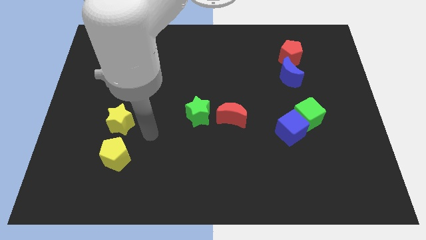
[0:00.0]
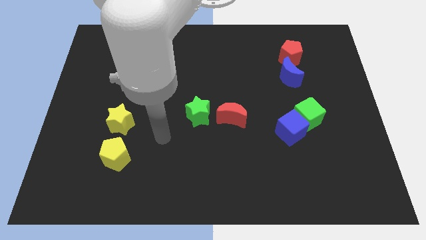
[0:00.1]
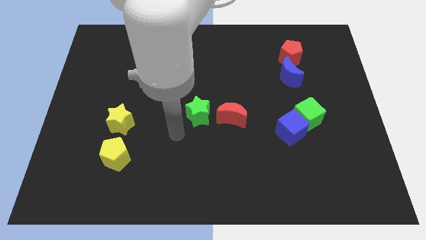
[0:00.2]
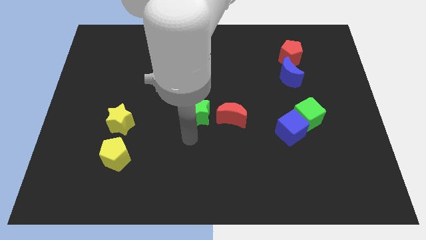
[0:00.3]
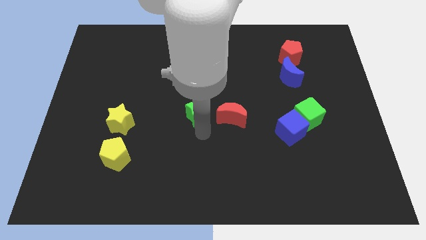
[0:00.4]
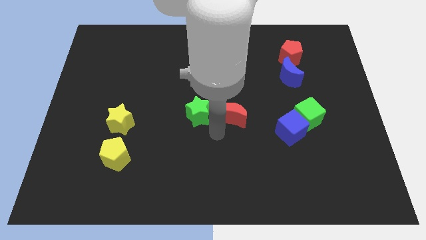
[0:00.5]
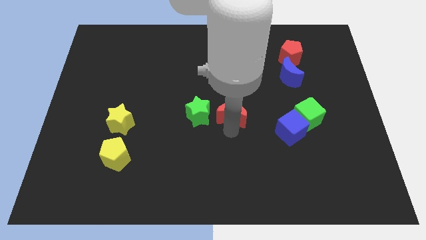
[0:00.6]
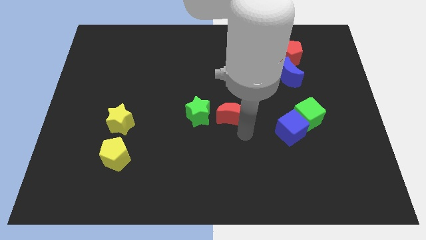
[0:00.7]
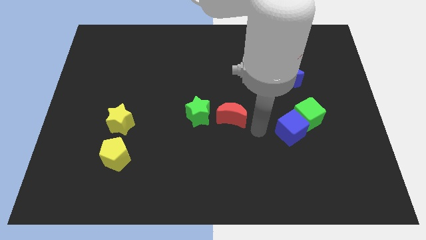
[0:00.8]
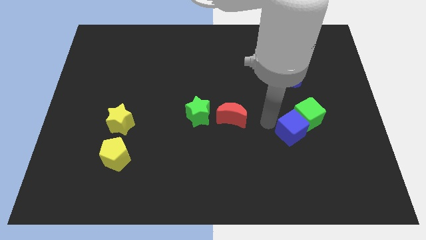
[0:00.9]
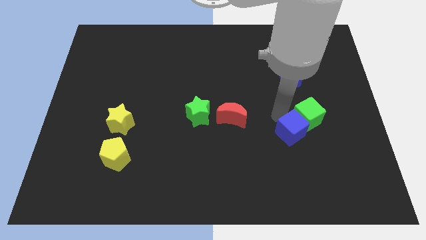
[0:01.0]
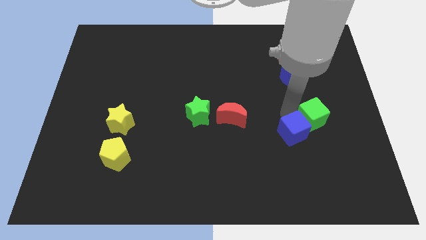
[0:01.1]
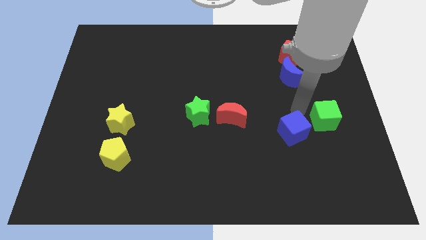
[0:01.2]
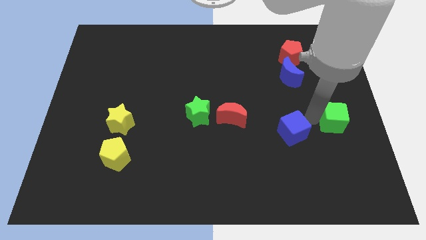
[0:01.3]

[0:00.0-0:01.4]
pull the blue cube apart from the green cube

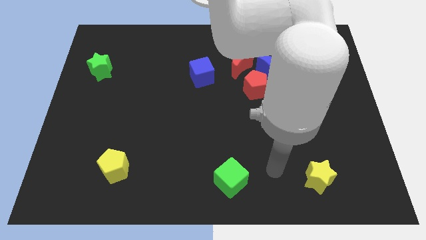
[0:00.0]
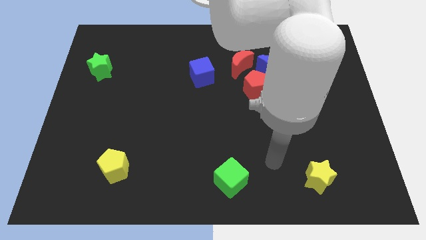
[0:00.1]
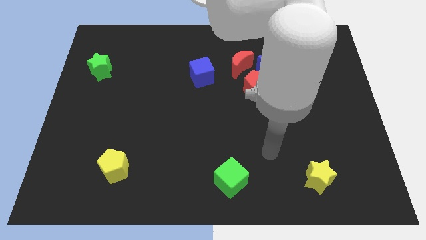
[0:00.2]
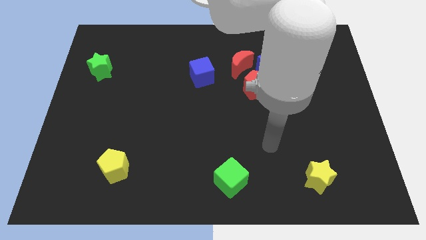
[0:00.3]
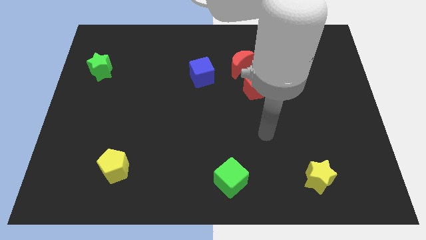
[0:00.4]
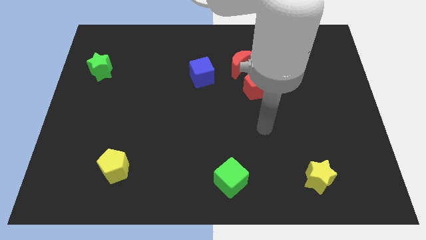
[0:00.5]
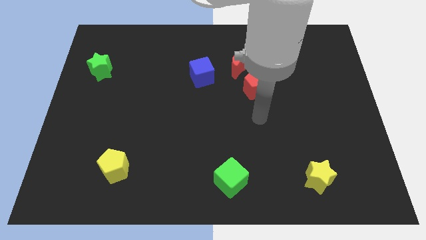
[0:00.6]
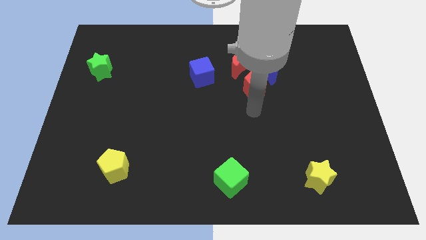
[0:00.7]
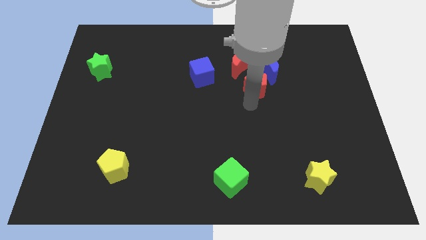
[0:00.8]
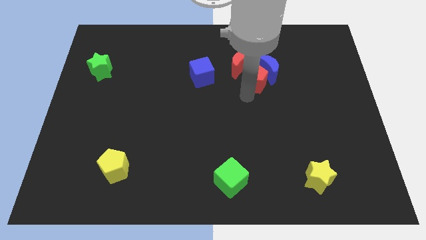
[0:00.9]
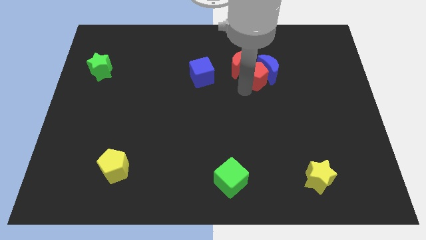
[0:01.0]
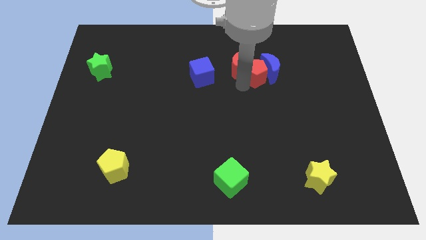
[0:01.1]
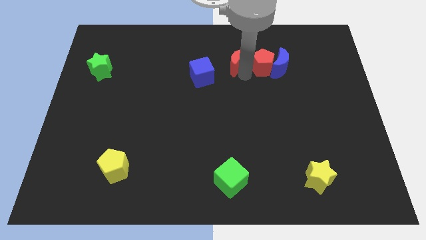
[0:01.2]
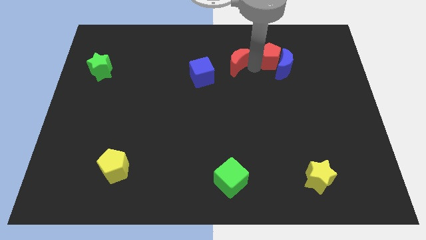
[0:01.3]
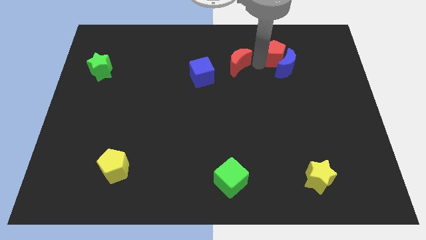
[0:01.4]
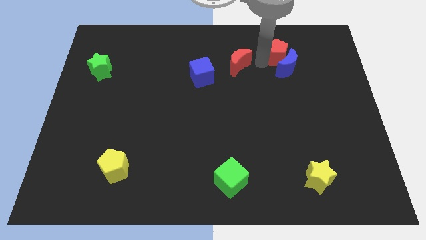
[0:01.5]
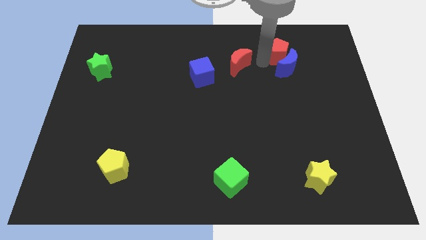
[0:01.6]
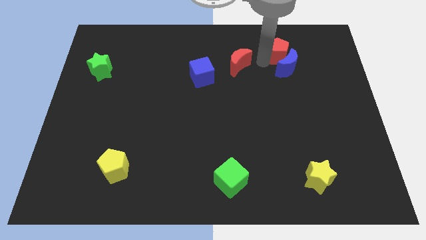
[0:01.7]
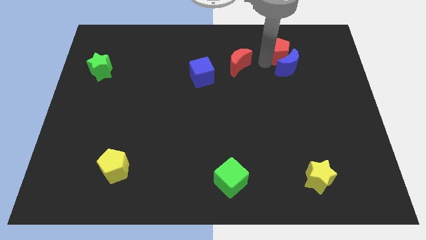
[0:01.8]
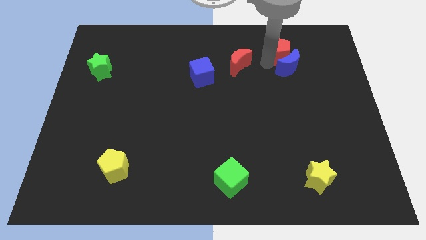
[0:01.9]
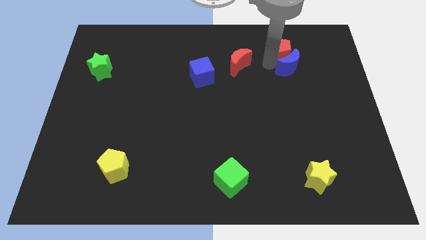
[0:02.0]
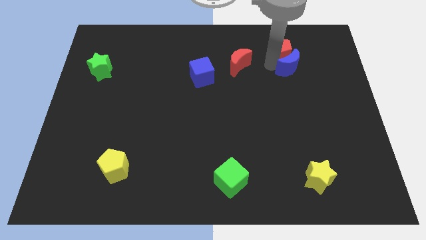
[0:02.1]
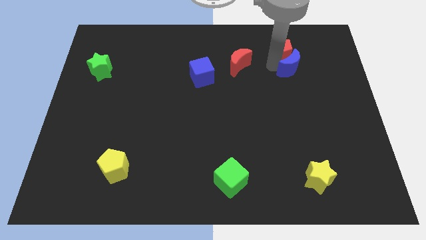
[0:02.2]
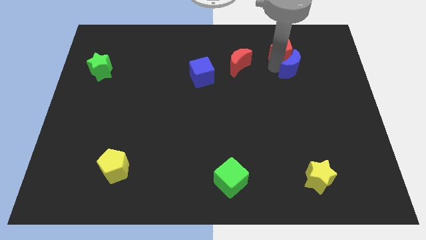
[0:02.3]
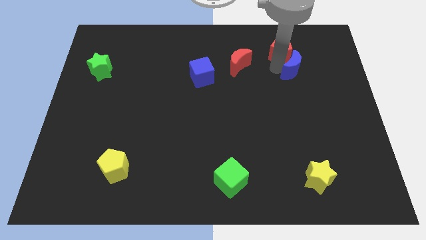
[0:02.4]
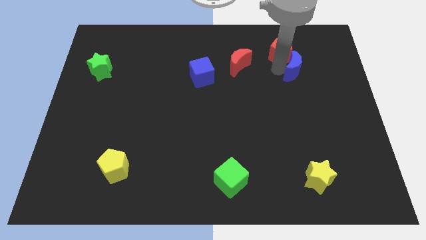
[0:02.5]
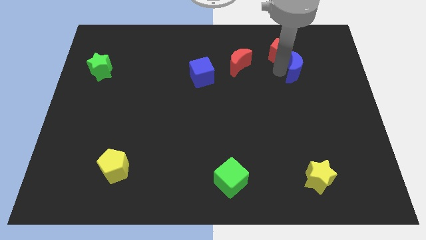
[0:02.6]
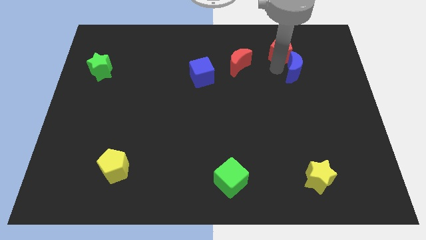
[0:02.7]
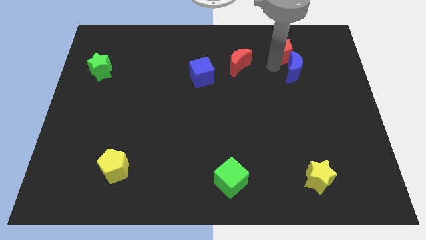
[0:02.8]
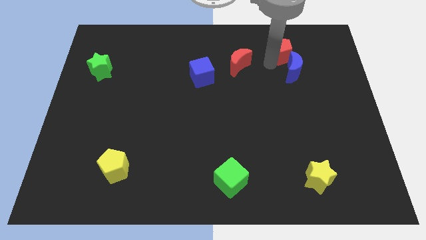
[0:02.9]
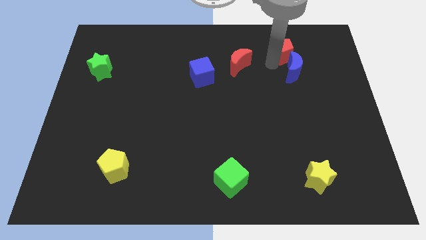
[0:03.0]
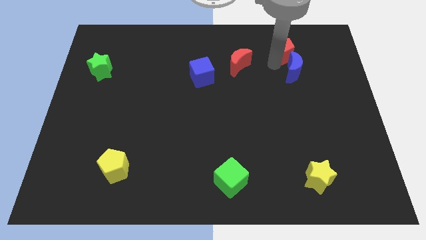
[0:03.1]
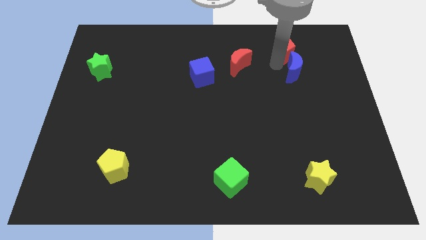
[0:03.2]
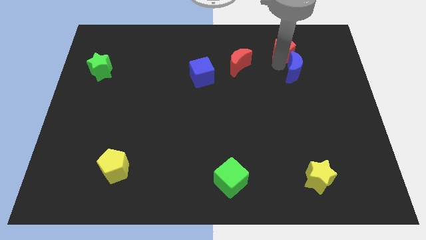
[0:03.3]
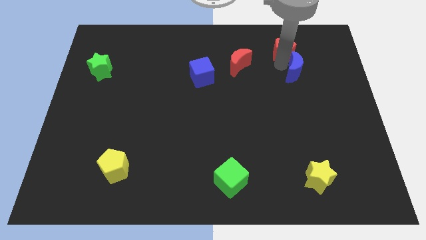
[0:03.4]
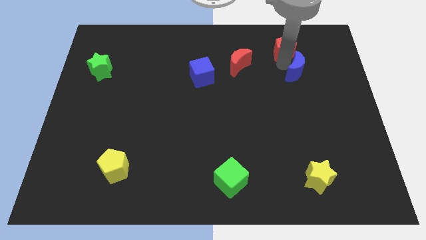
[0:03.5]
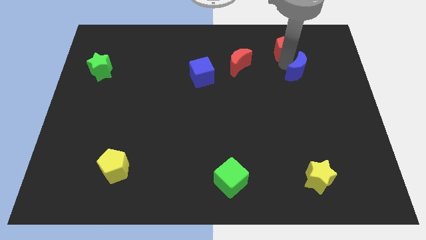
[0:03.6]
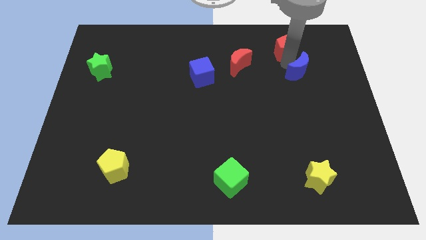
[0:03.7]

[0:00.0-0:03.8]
move the blue moon away from the red pentagon and red moon

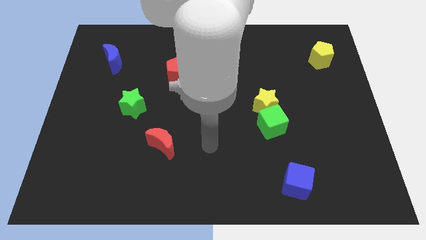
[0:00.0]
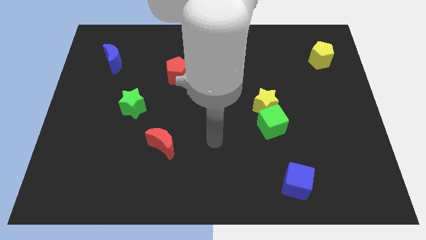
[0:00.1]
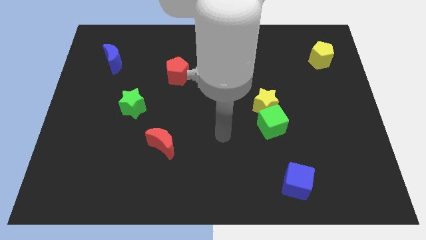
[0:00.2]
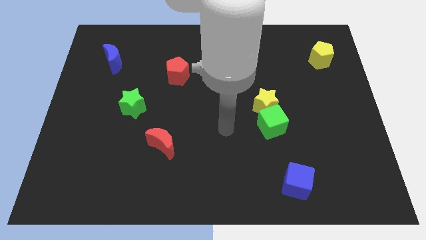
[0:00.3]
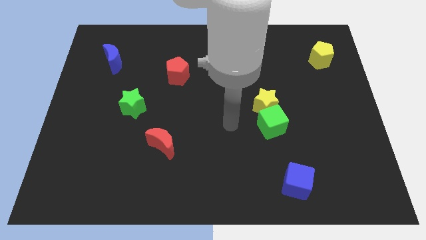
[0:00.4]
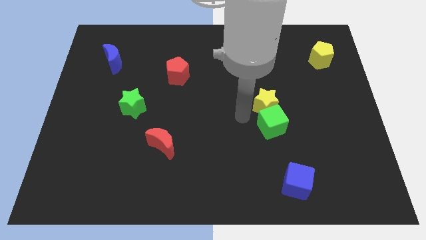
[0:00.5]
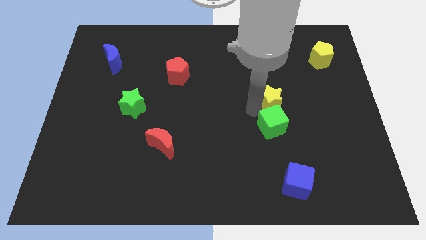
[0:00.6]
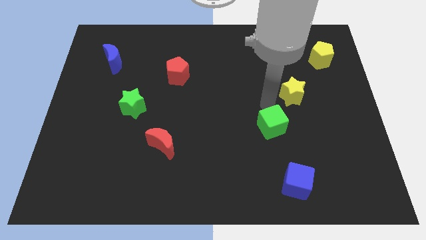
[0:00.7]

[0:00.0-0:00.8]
separate the green cube from the yellow star

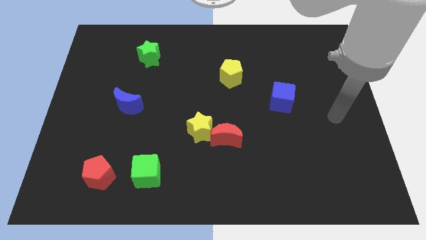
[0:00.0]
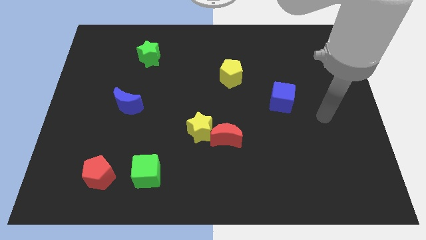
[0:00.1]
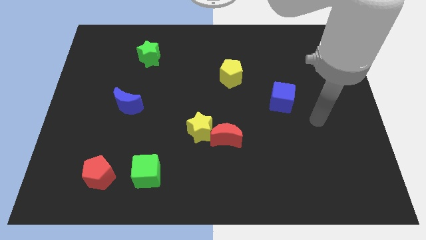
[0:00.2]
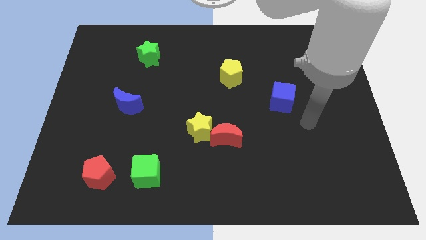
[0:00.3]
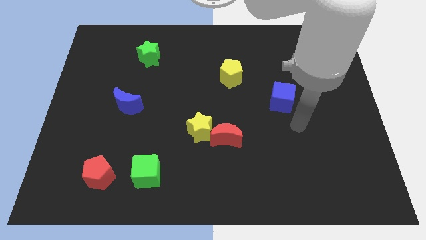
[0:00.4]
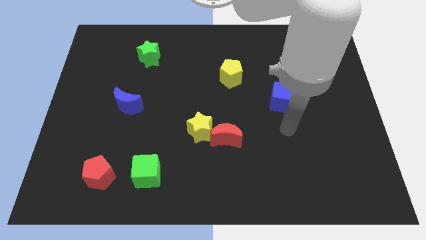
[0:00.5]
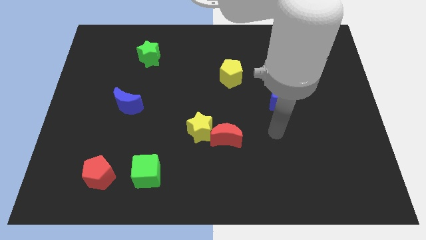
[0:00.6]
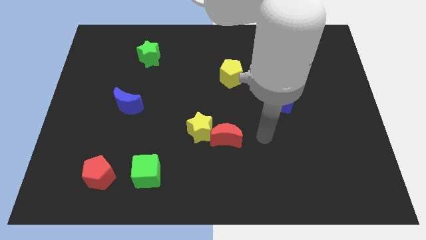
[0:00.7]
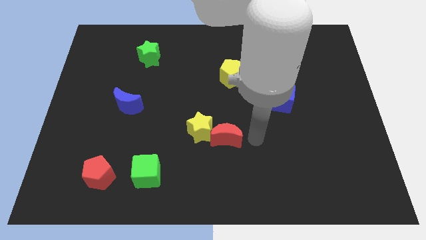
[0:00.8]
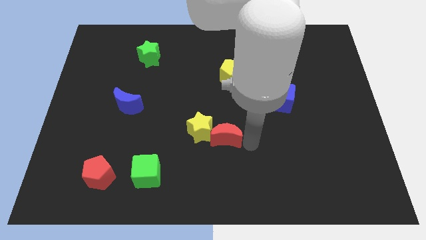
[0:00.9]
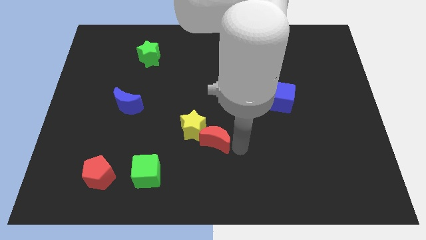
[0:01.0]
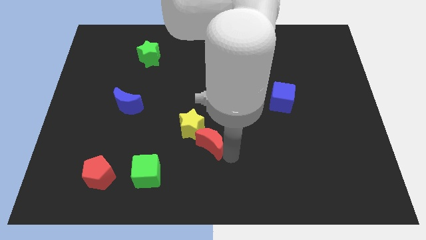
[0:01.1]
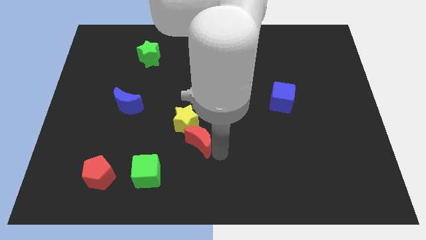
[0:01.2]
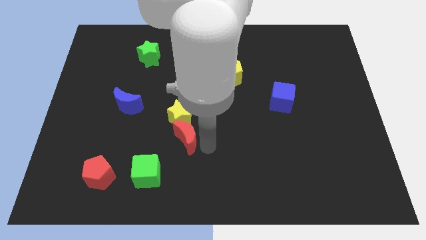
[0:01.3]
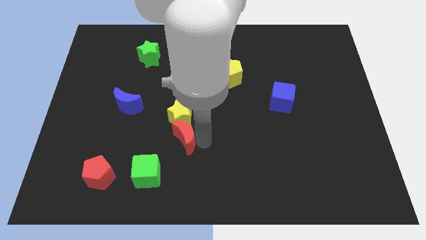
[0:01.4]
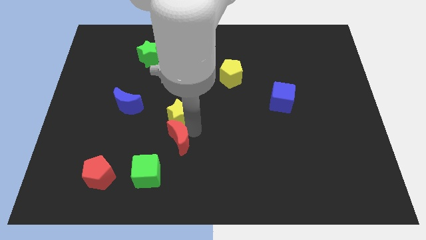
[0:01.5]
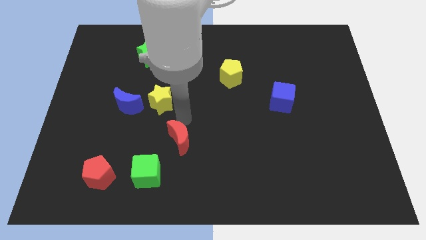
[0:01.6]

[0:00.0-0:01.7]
separate the red moon from the yellow star

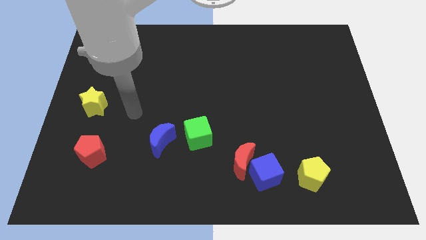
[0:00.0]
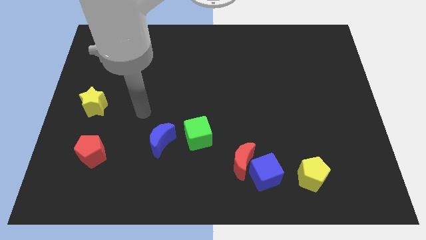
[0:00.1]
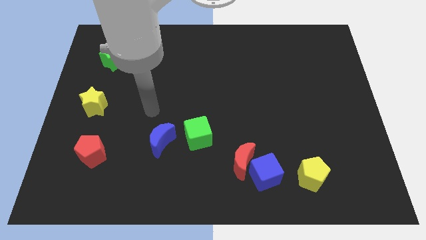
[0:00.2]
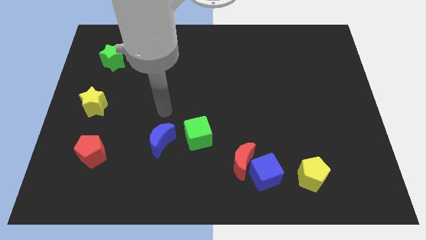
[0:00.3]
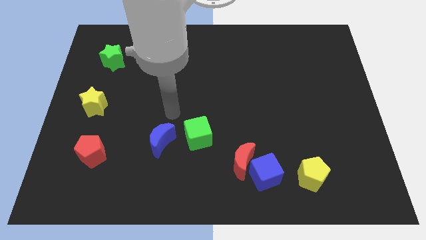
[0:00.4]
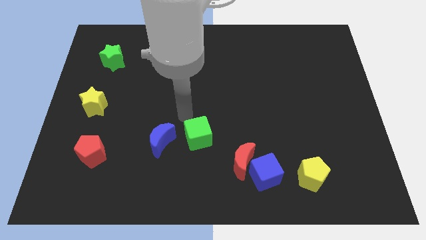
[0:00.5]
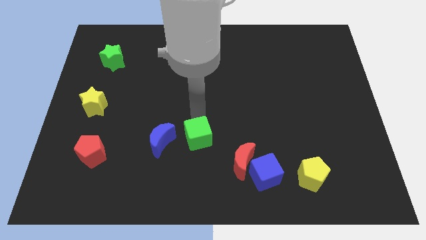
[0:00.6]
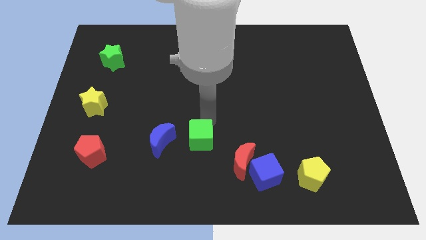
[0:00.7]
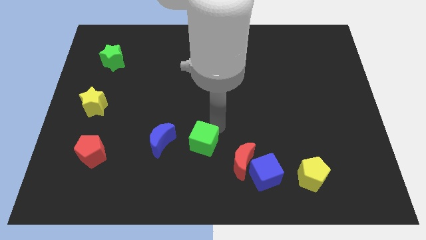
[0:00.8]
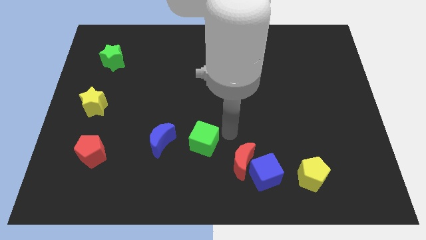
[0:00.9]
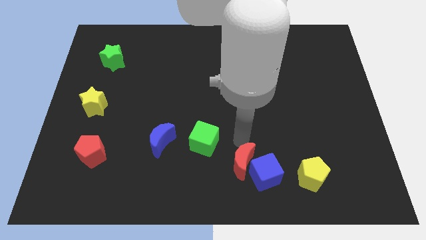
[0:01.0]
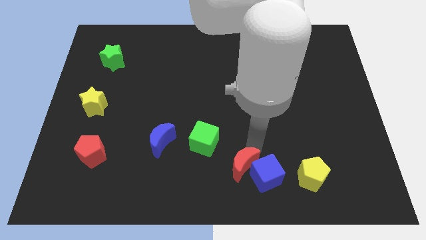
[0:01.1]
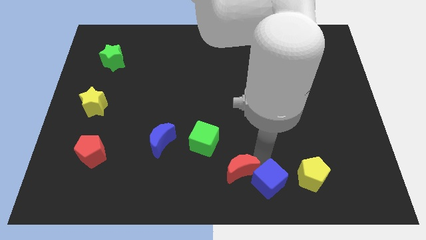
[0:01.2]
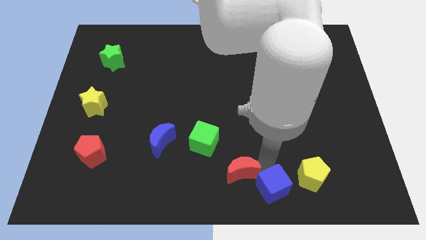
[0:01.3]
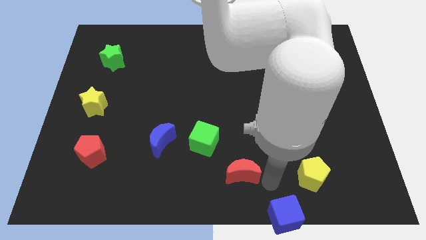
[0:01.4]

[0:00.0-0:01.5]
move the red moon away from the blue cube

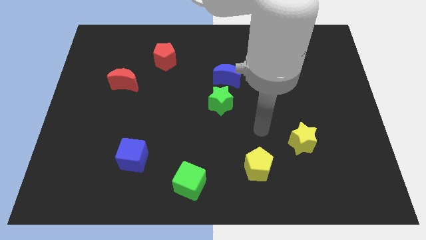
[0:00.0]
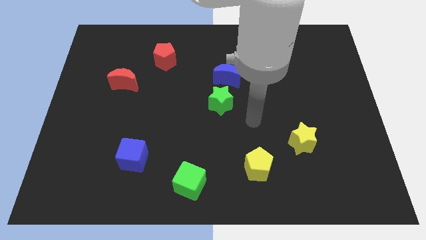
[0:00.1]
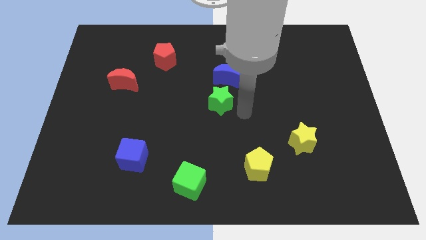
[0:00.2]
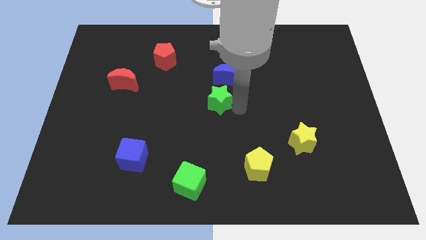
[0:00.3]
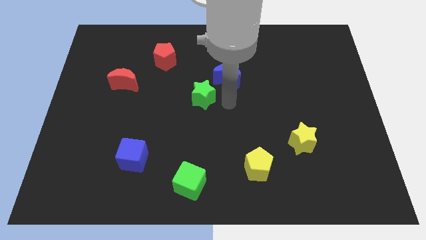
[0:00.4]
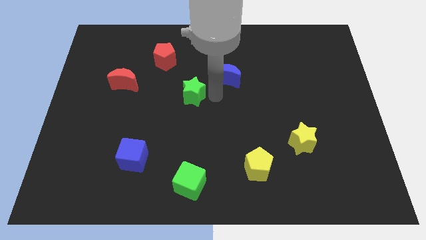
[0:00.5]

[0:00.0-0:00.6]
move the blue moon away from the green star